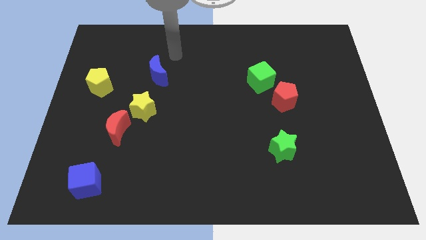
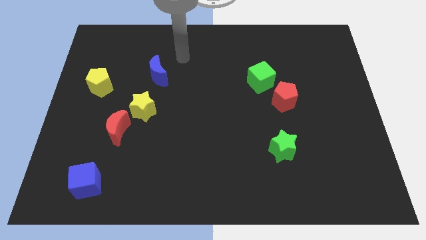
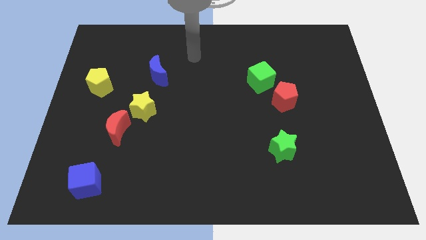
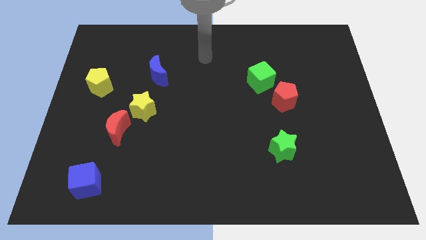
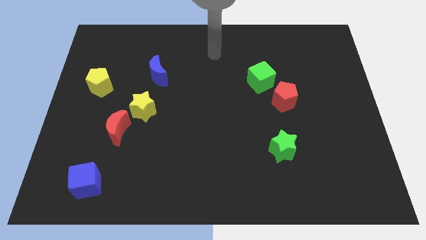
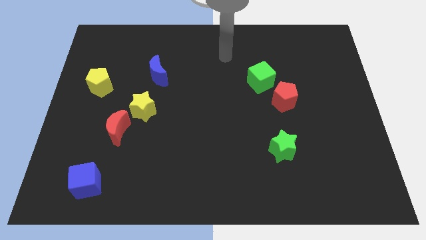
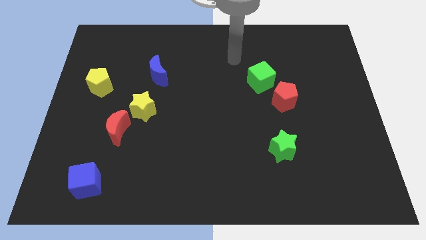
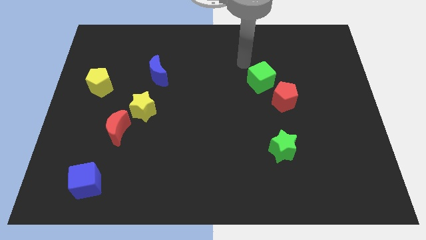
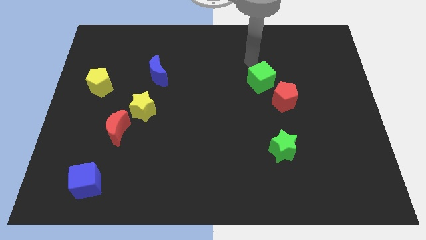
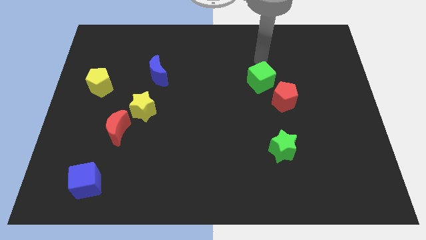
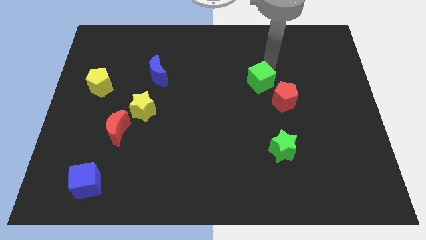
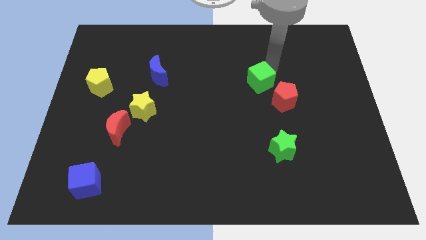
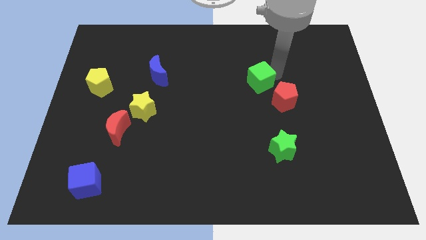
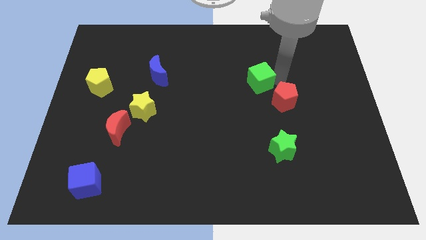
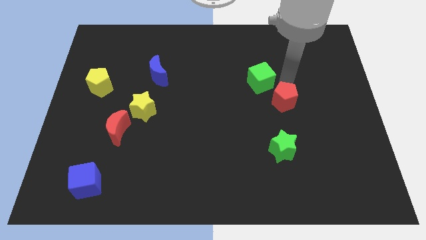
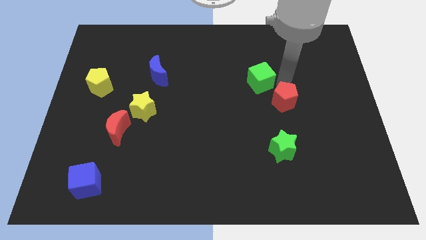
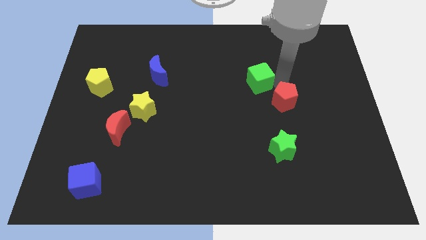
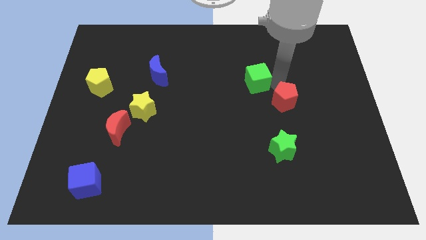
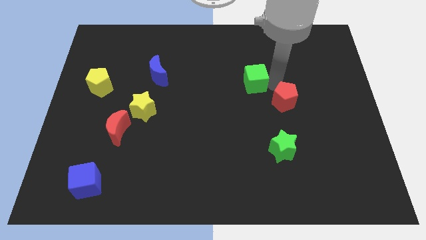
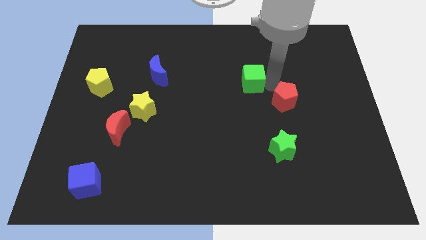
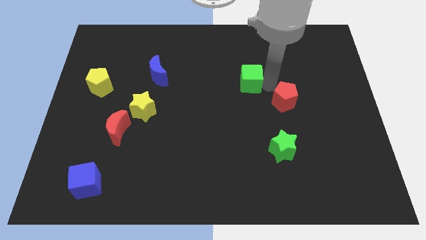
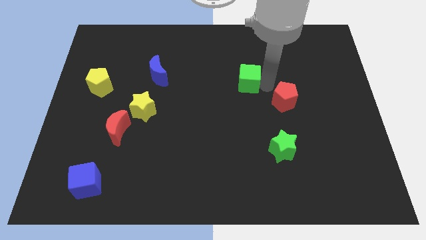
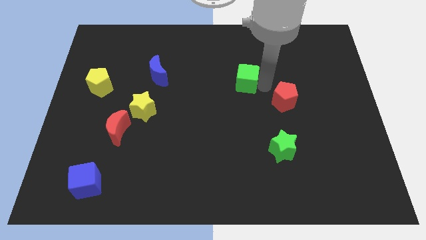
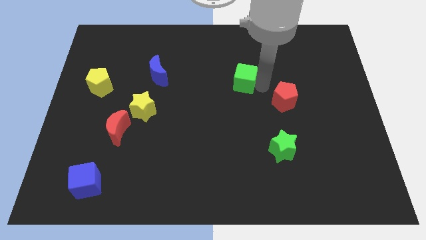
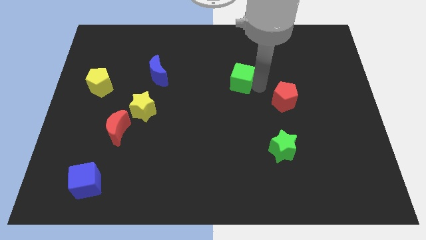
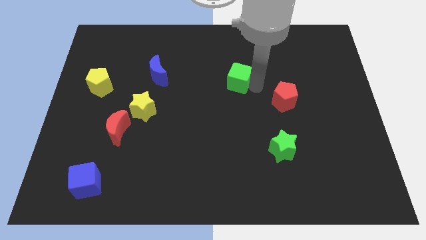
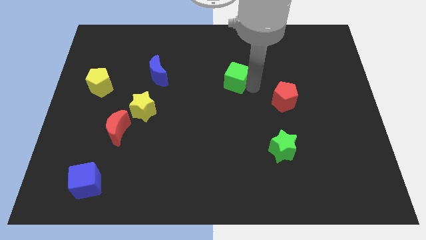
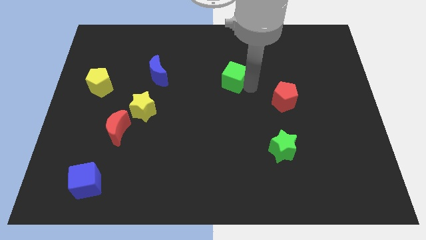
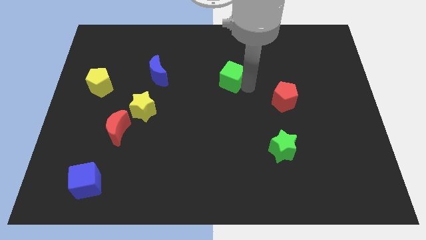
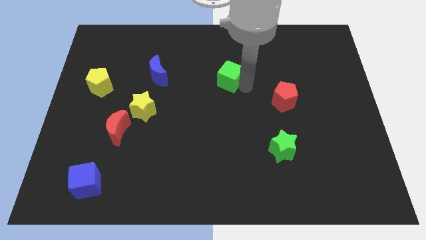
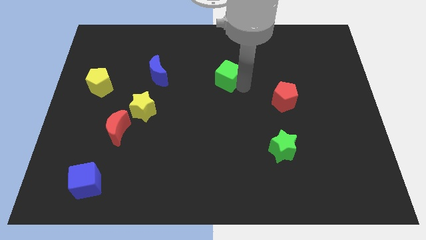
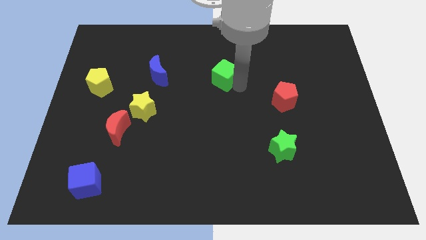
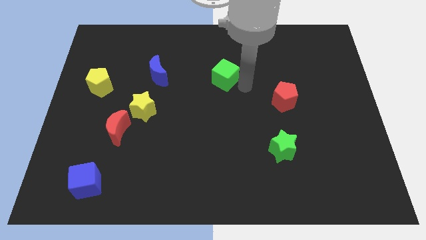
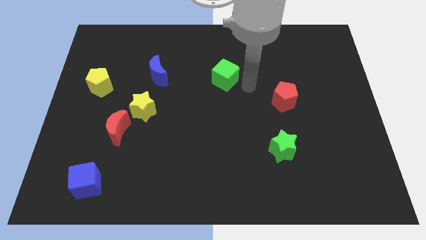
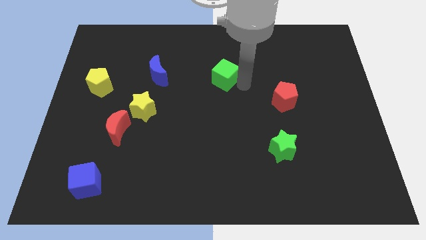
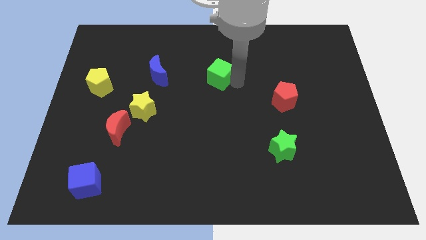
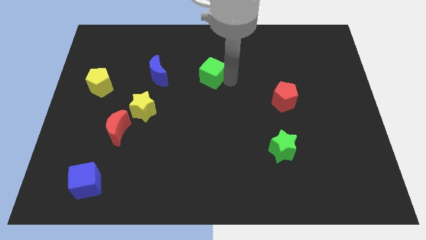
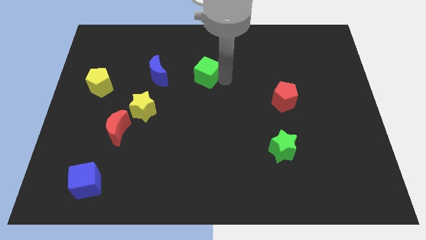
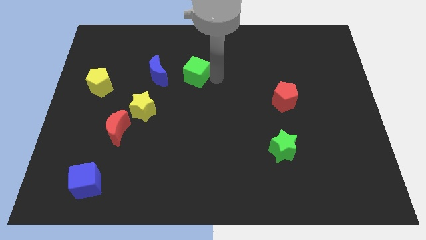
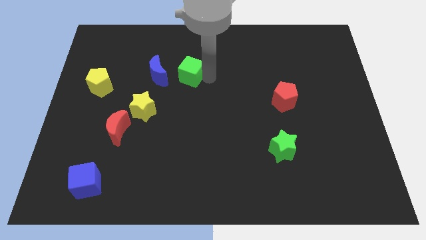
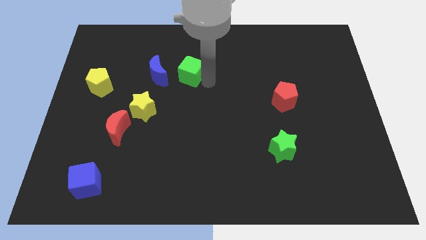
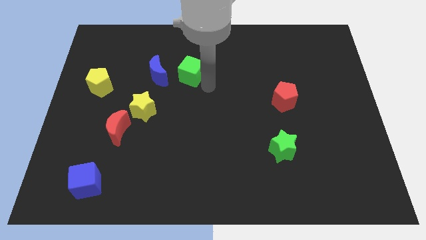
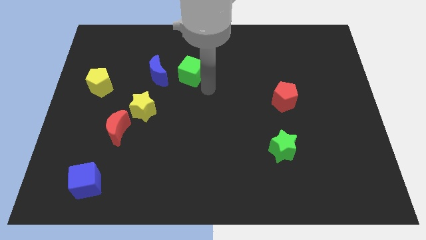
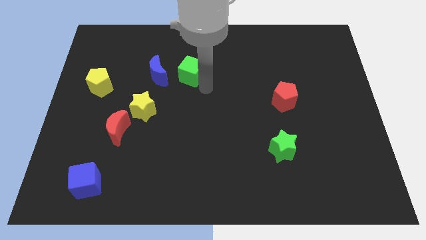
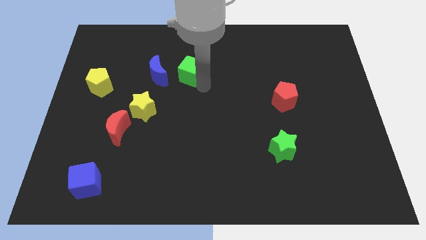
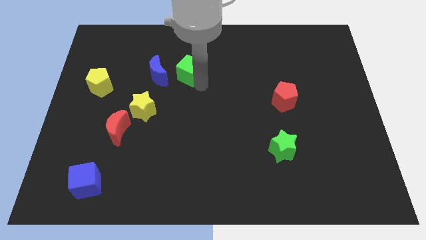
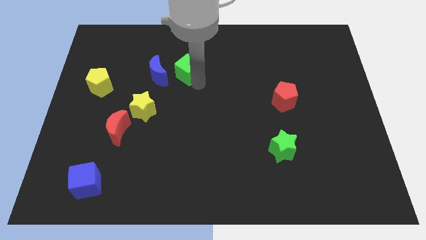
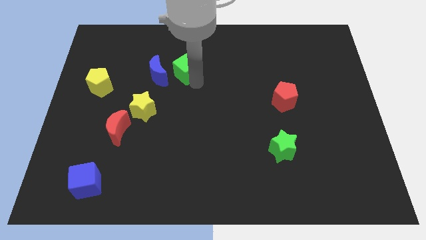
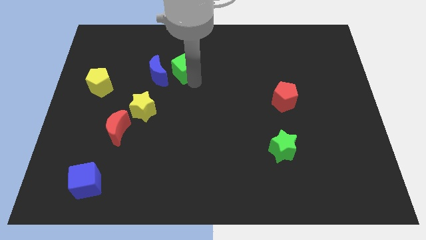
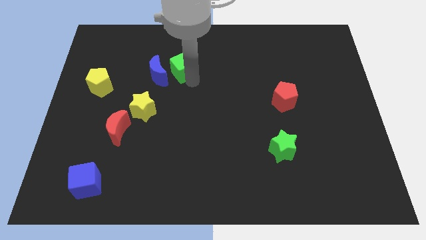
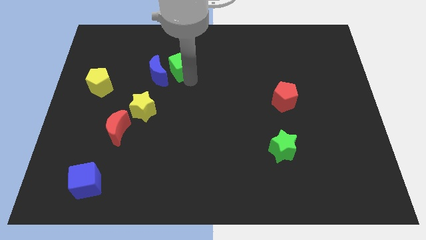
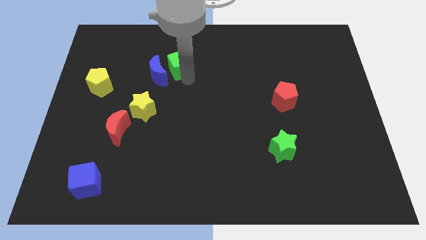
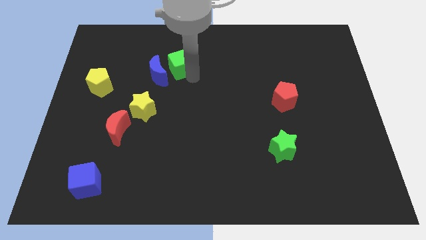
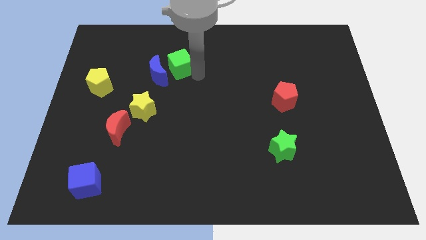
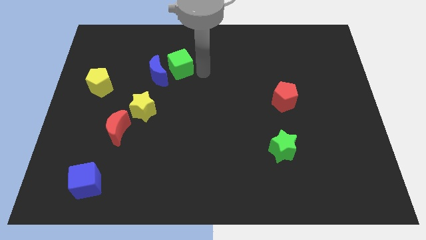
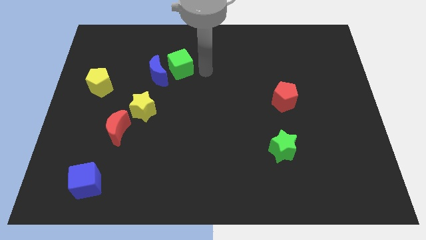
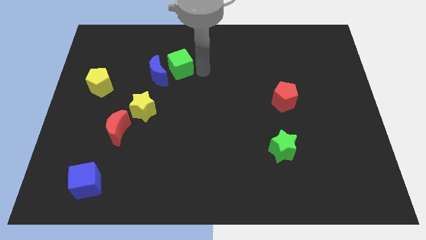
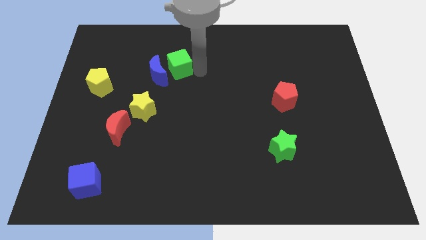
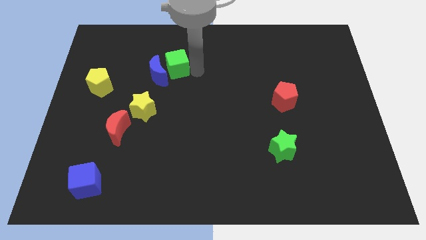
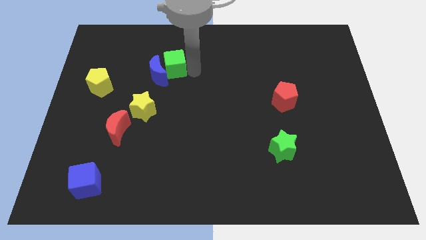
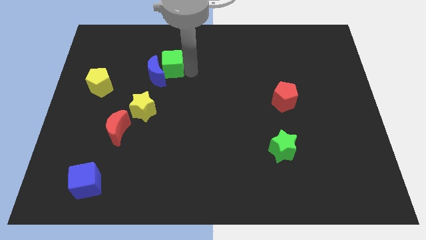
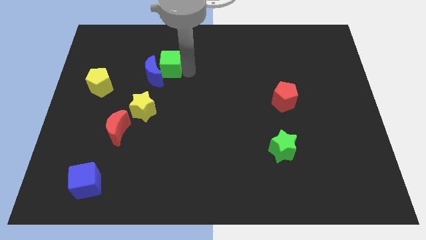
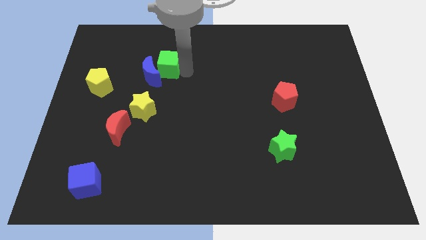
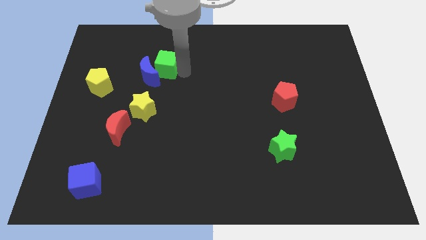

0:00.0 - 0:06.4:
move the green cube to the top side of the yellow star

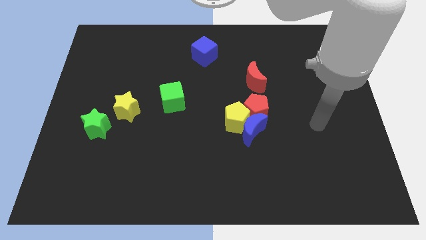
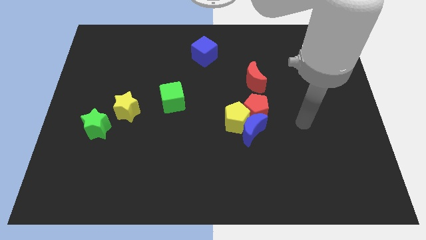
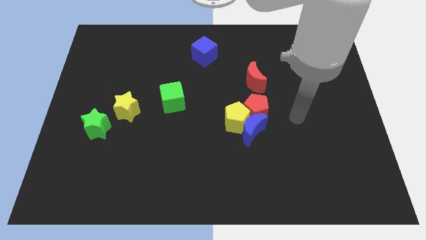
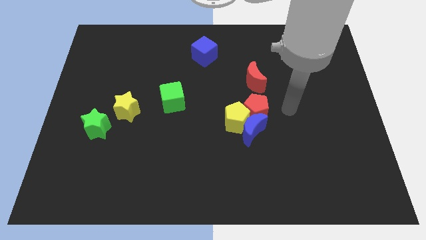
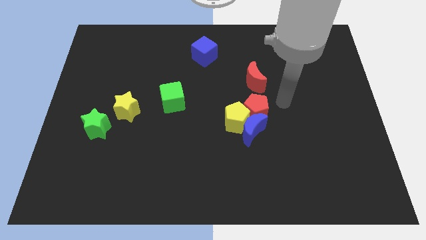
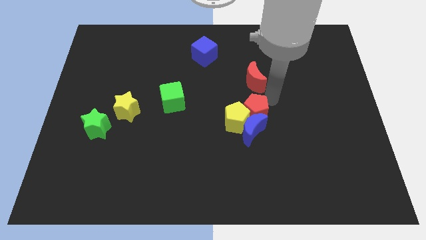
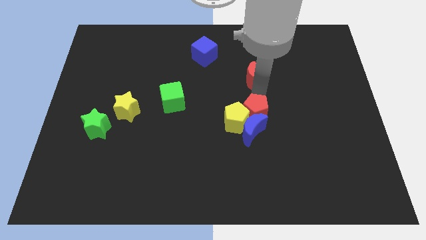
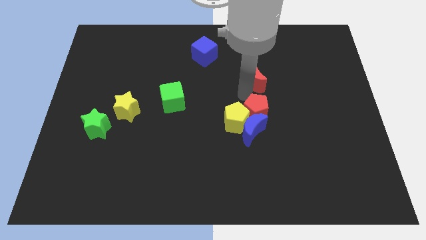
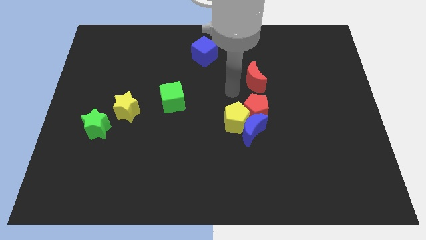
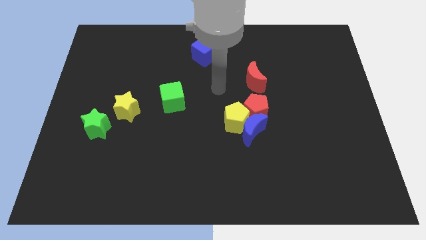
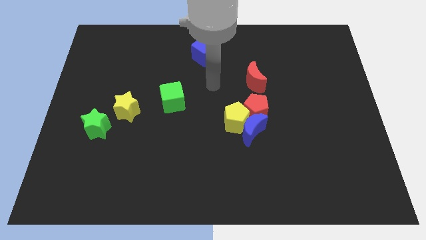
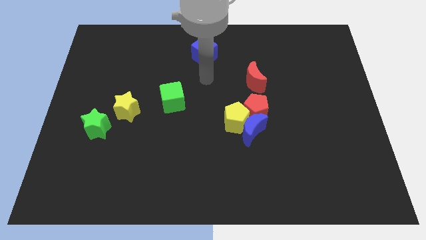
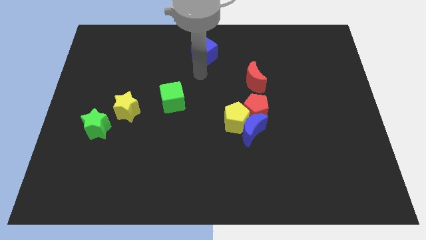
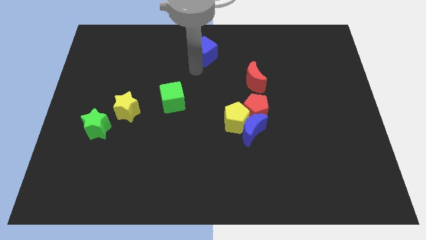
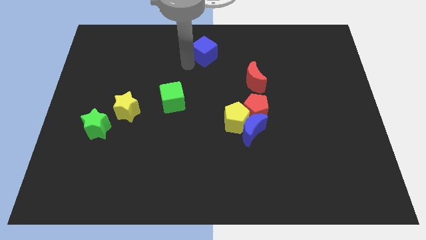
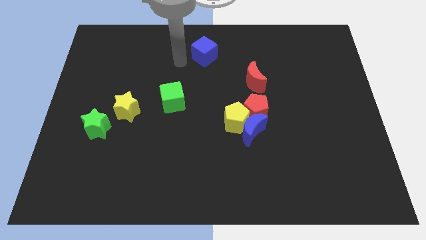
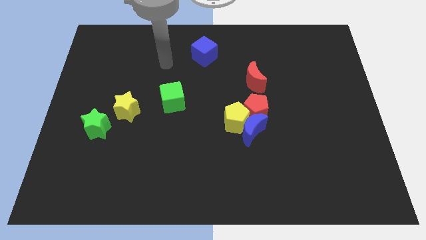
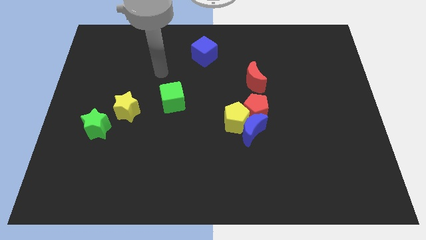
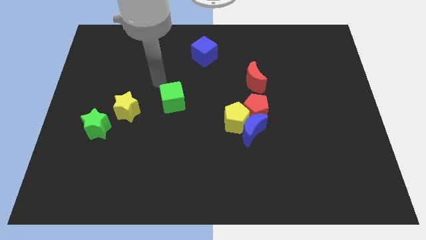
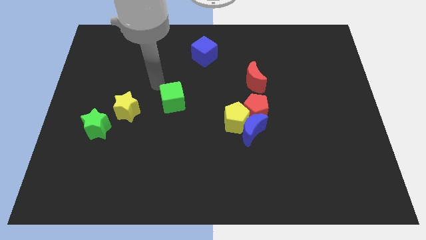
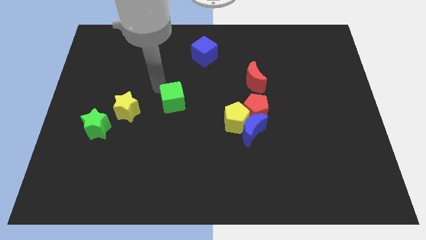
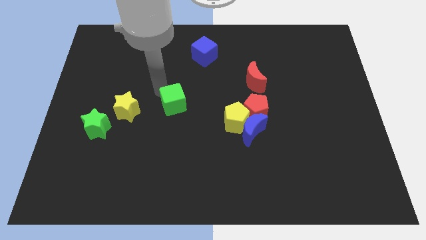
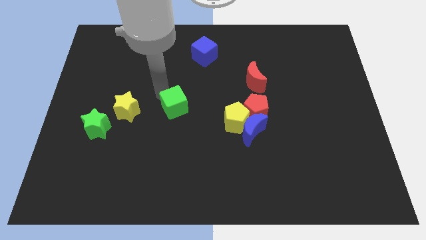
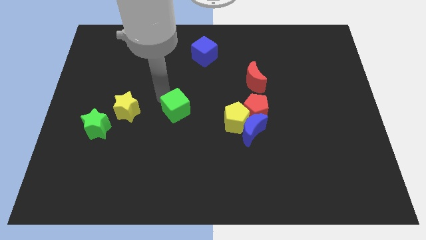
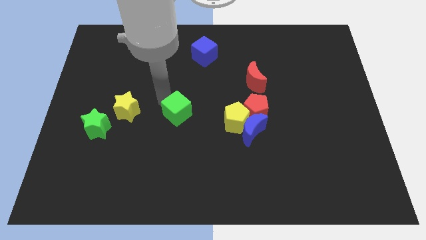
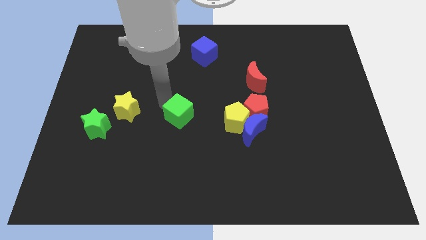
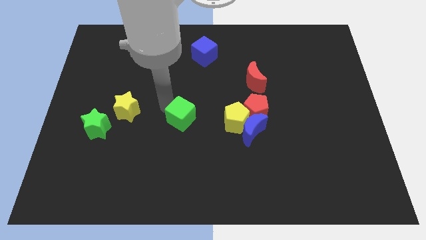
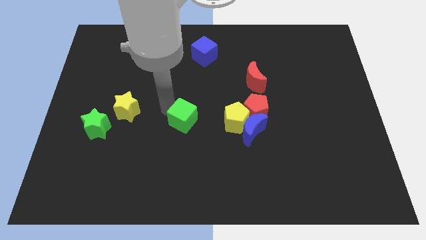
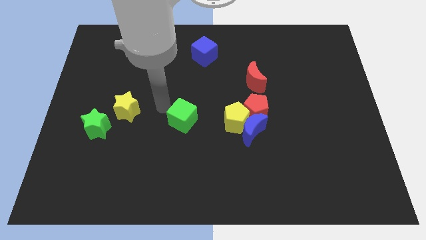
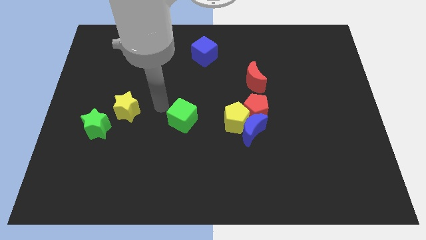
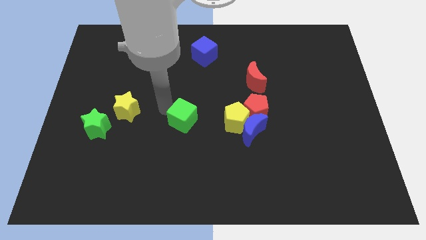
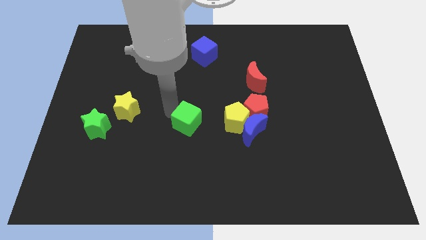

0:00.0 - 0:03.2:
push the green cube to the left of the blue moon
